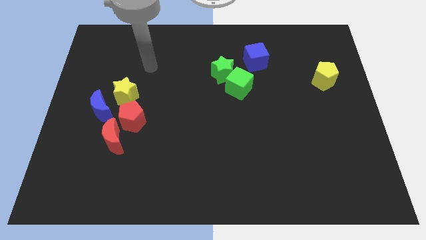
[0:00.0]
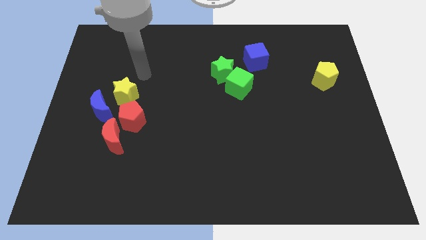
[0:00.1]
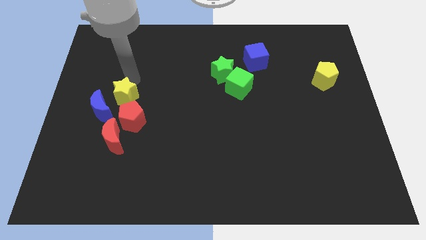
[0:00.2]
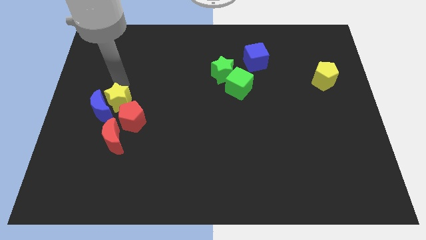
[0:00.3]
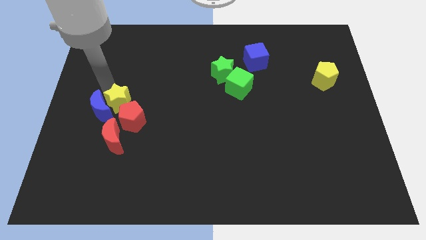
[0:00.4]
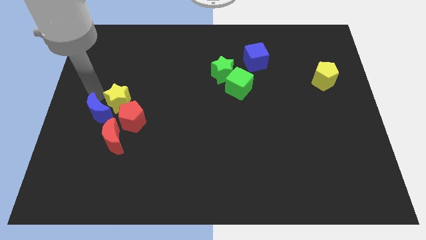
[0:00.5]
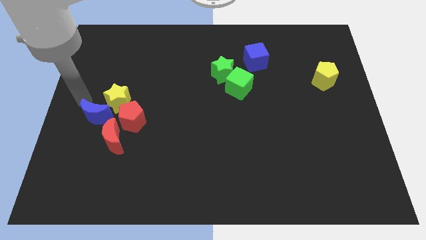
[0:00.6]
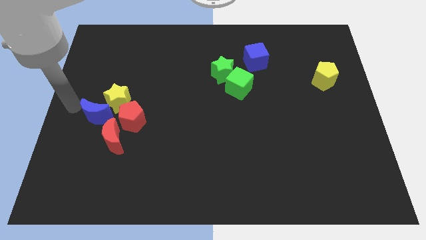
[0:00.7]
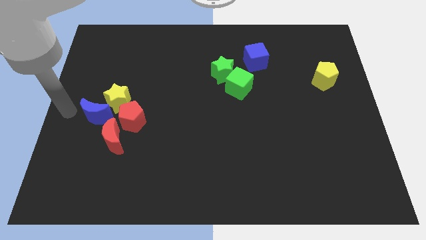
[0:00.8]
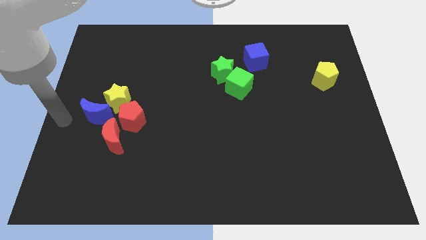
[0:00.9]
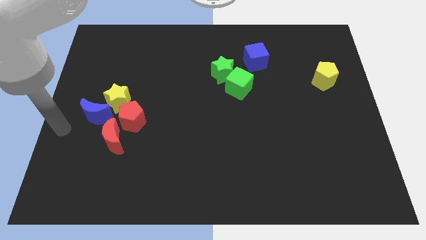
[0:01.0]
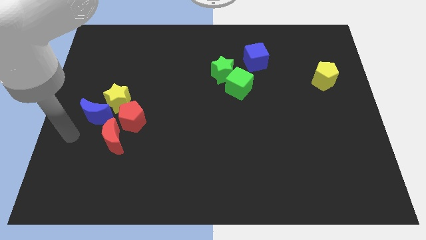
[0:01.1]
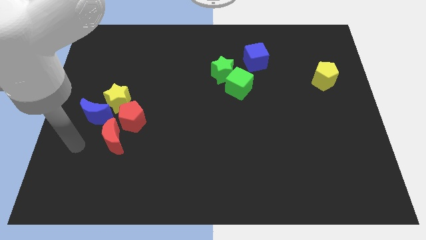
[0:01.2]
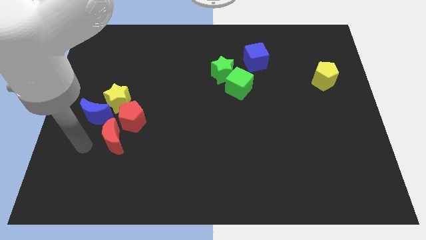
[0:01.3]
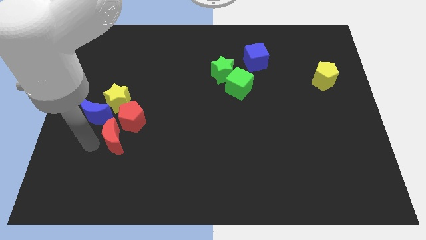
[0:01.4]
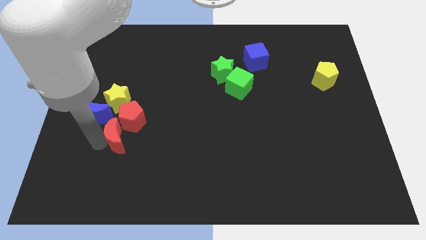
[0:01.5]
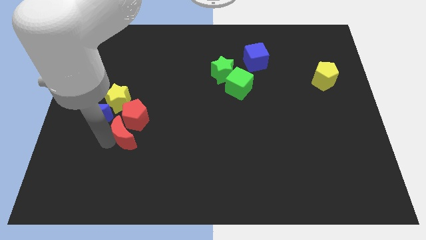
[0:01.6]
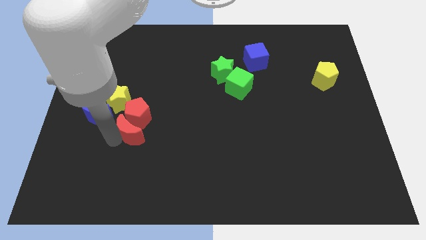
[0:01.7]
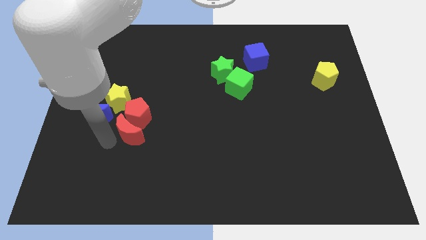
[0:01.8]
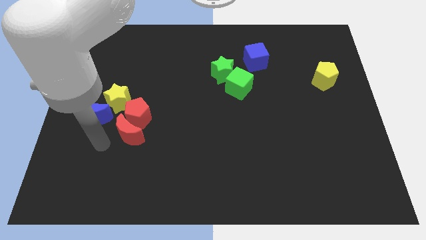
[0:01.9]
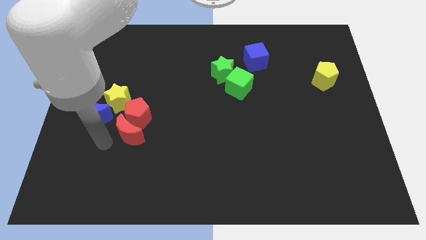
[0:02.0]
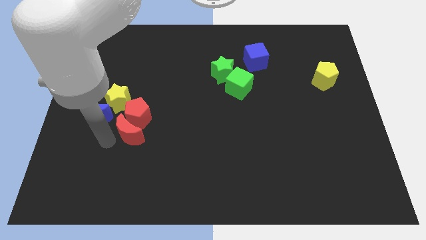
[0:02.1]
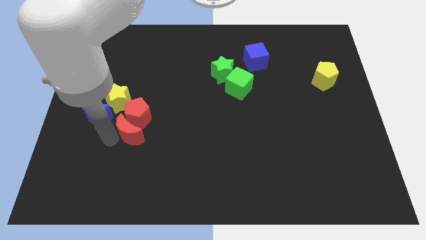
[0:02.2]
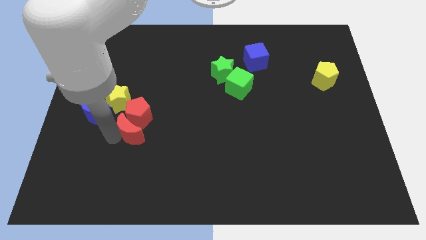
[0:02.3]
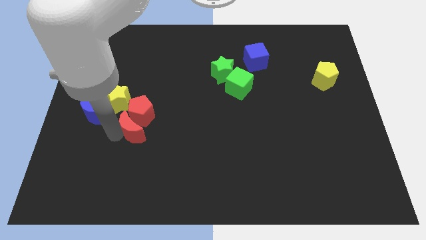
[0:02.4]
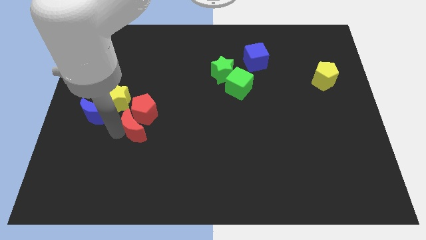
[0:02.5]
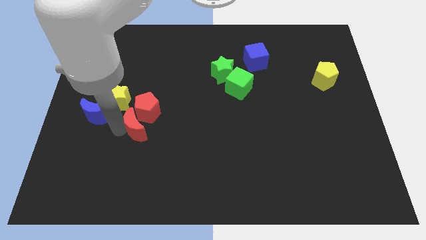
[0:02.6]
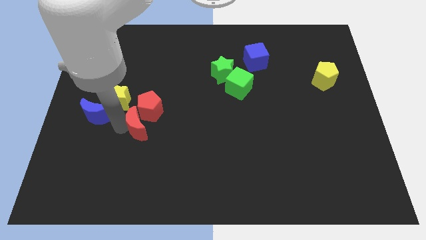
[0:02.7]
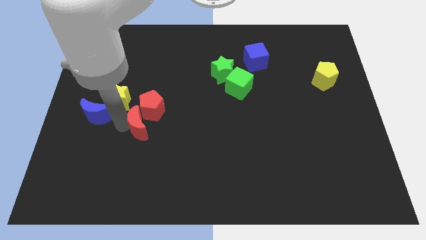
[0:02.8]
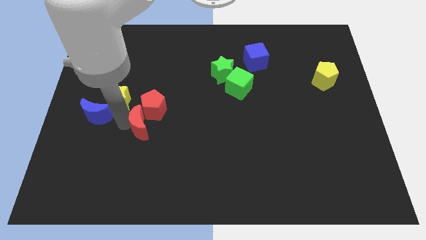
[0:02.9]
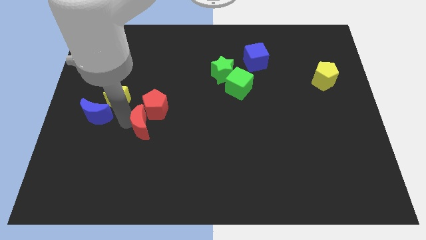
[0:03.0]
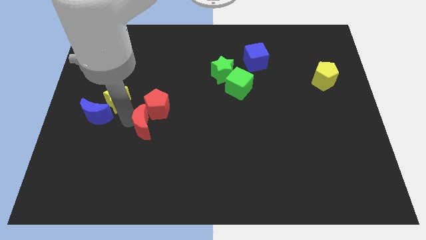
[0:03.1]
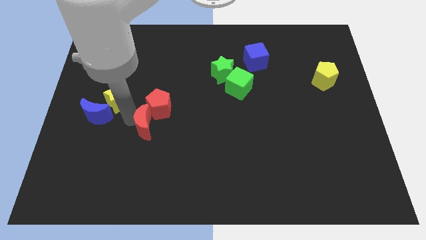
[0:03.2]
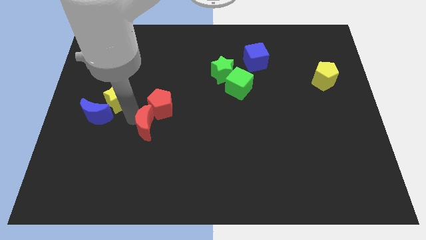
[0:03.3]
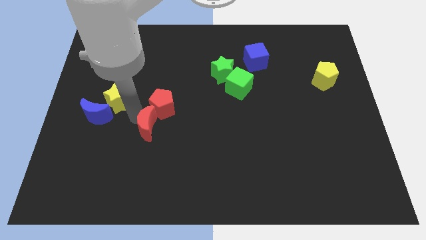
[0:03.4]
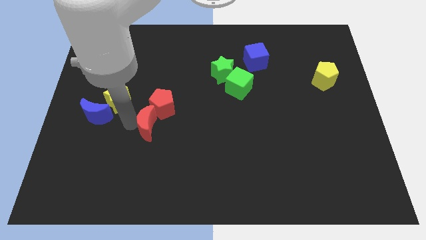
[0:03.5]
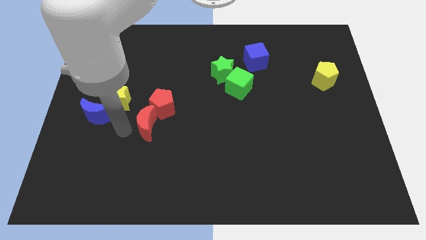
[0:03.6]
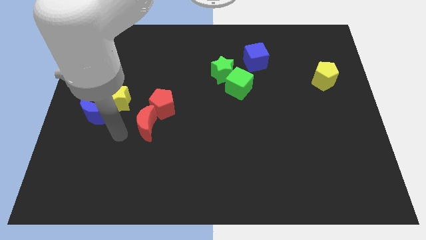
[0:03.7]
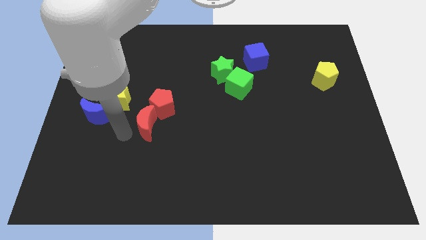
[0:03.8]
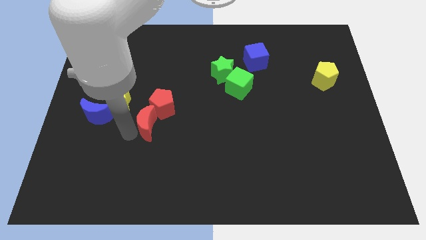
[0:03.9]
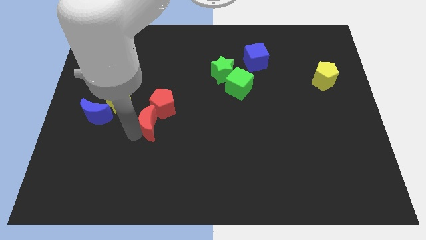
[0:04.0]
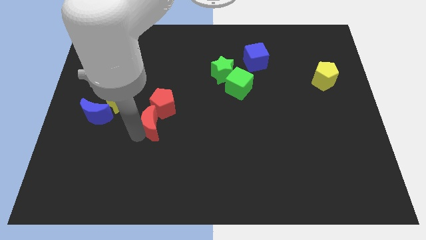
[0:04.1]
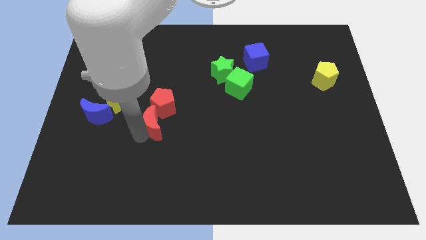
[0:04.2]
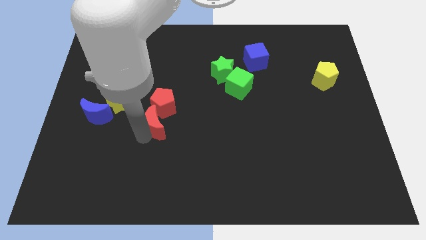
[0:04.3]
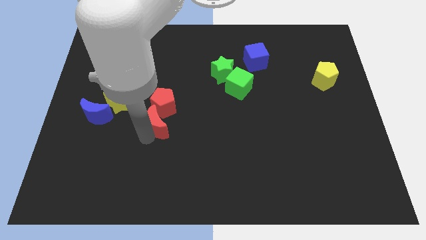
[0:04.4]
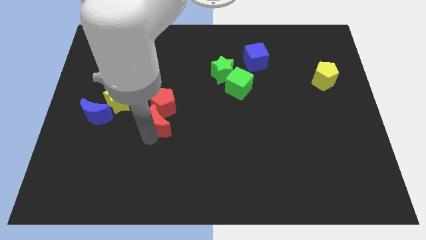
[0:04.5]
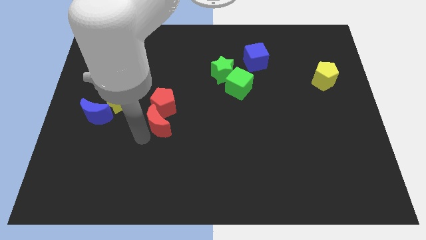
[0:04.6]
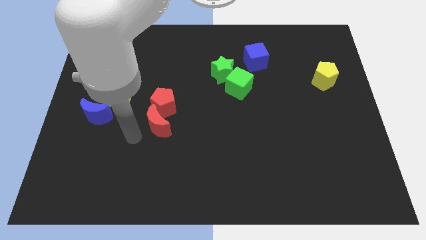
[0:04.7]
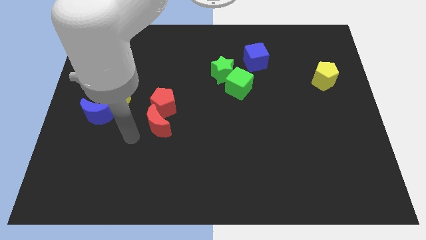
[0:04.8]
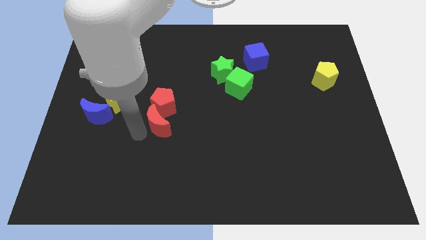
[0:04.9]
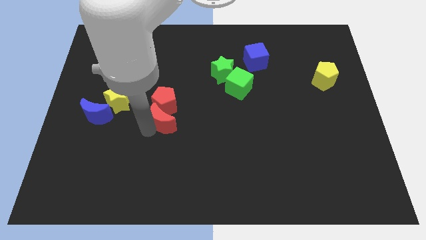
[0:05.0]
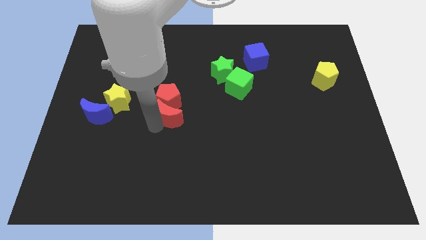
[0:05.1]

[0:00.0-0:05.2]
push the red moon to the center of the board

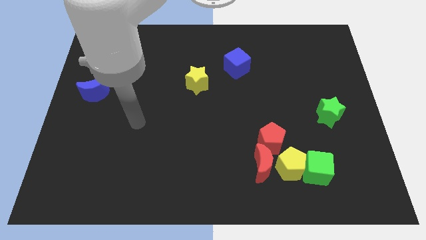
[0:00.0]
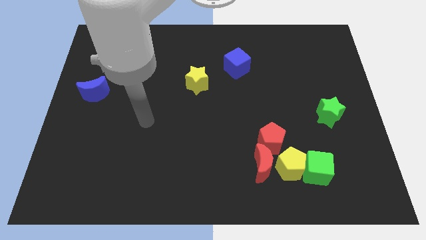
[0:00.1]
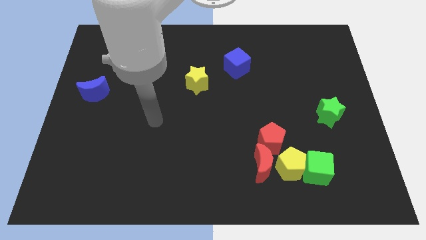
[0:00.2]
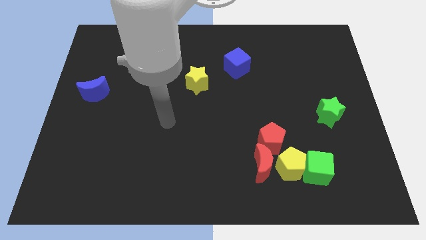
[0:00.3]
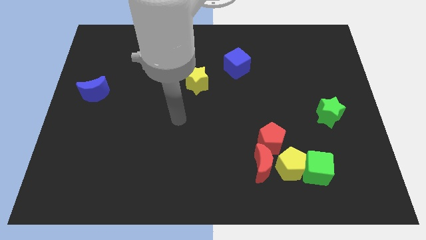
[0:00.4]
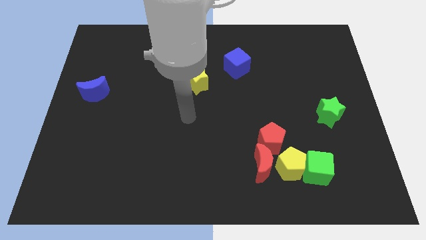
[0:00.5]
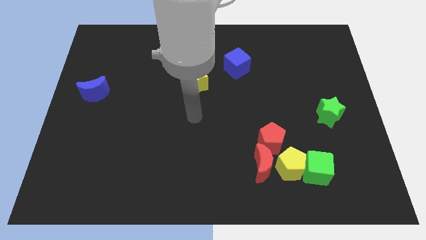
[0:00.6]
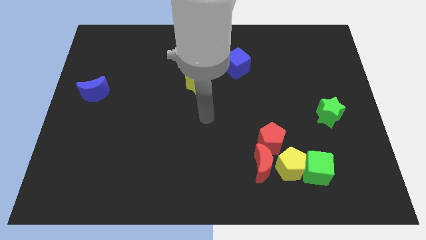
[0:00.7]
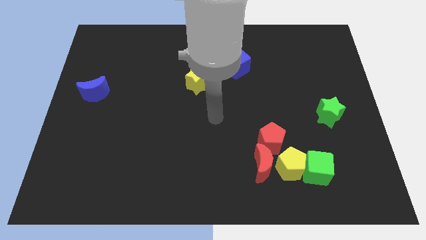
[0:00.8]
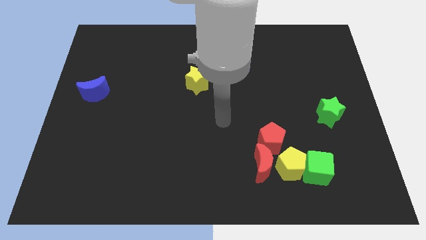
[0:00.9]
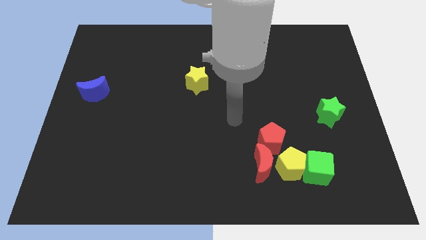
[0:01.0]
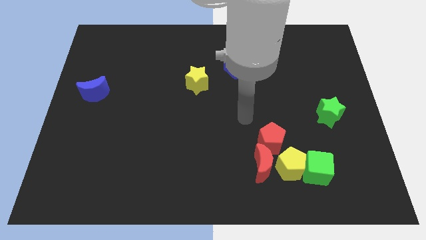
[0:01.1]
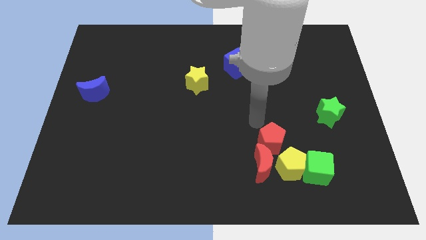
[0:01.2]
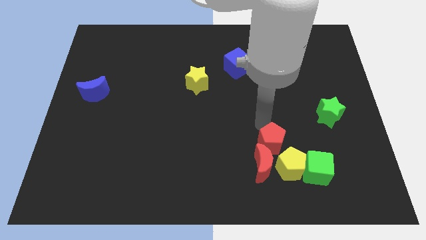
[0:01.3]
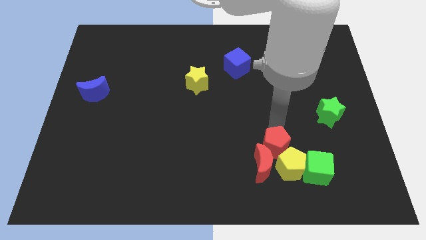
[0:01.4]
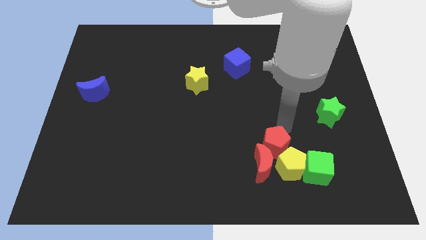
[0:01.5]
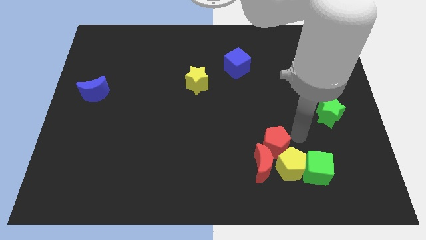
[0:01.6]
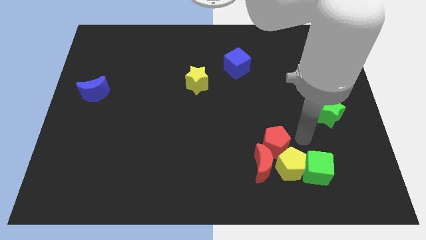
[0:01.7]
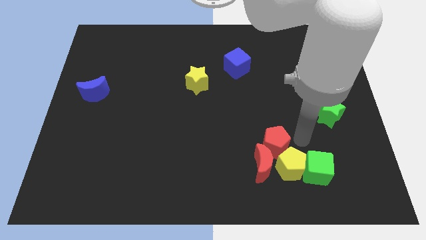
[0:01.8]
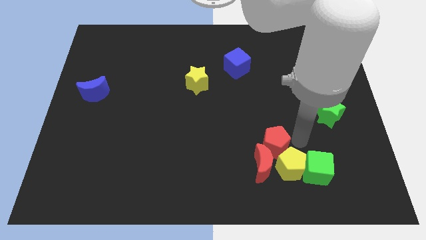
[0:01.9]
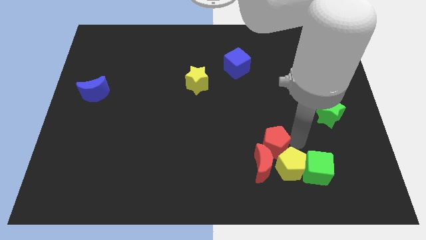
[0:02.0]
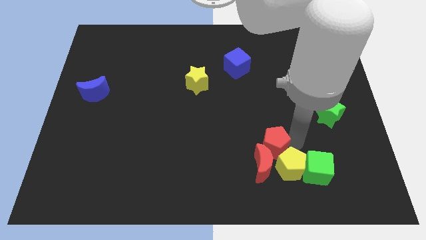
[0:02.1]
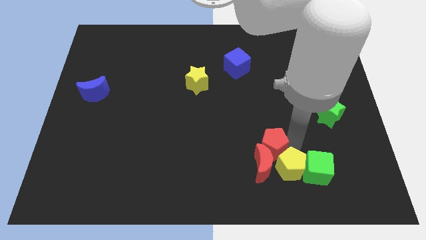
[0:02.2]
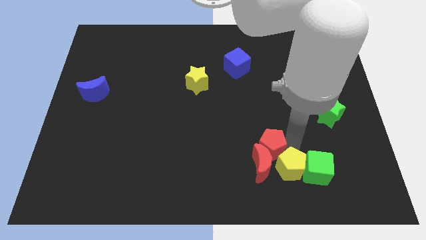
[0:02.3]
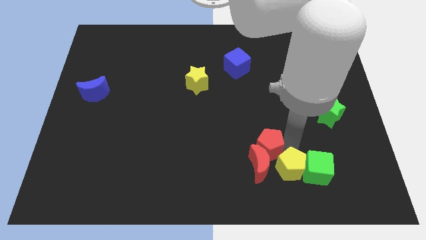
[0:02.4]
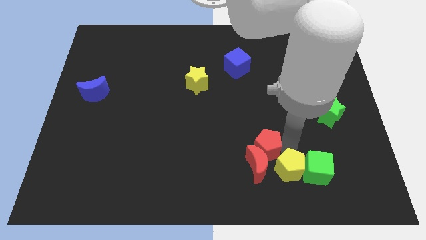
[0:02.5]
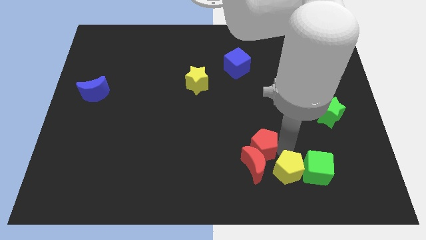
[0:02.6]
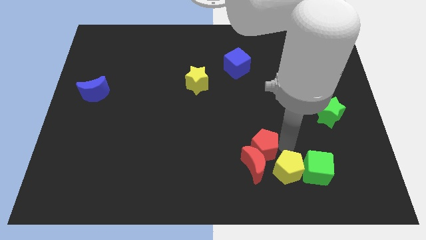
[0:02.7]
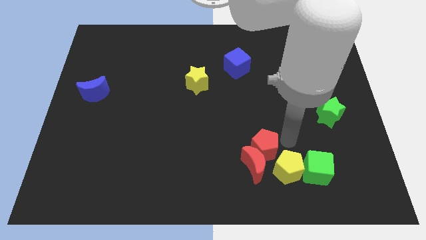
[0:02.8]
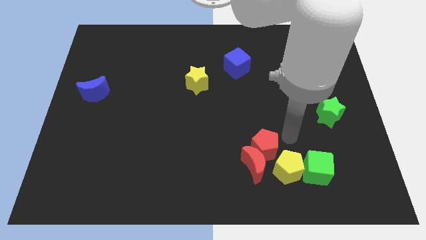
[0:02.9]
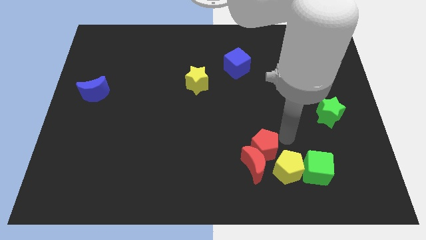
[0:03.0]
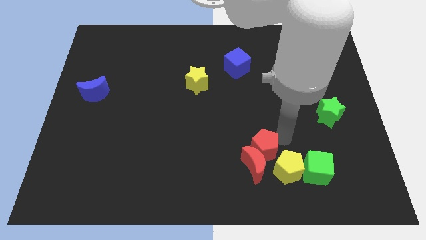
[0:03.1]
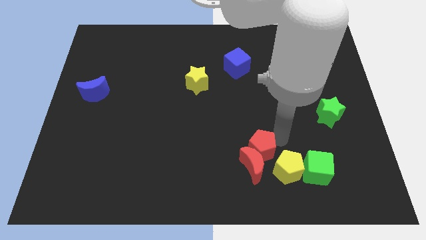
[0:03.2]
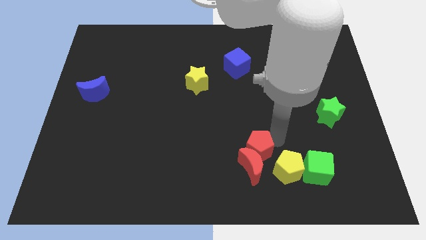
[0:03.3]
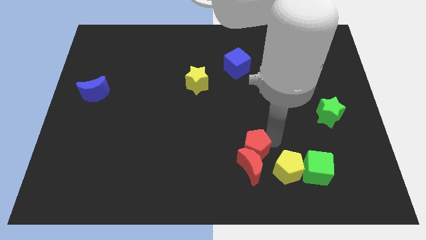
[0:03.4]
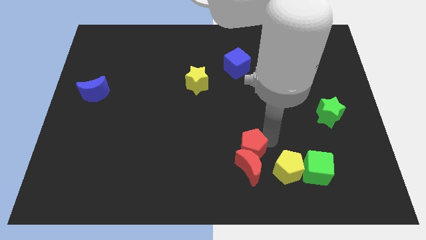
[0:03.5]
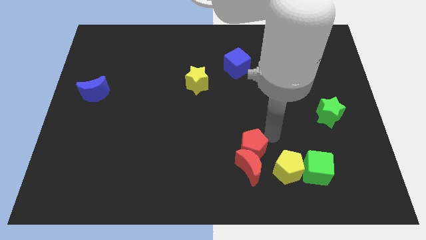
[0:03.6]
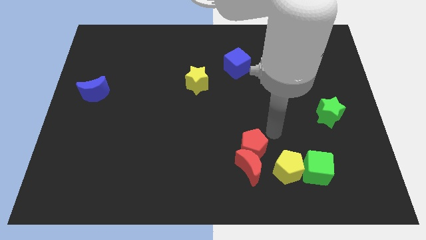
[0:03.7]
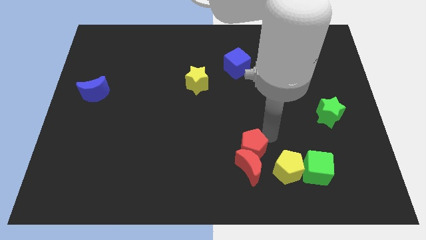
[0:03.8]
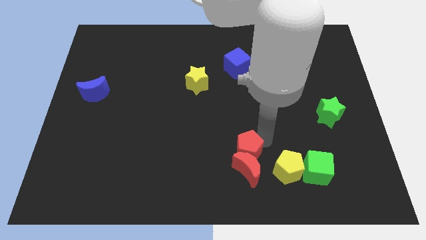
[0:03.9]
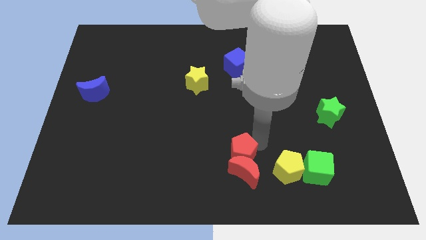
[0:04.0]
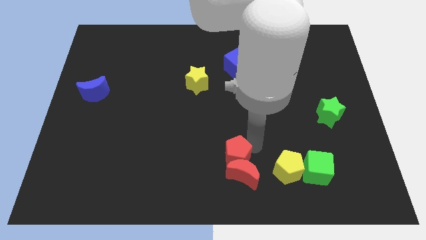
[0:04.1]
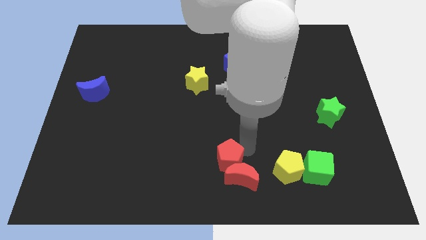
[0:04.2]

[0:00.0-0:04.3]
move the red pentagon to the bottom
